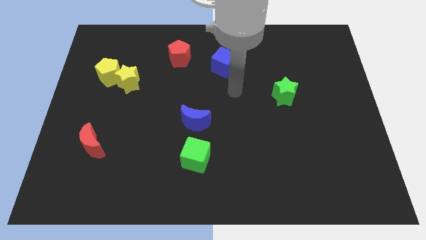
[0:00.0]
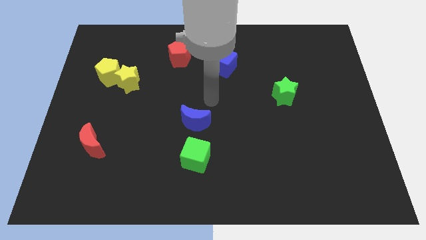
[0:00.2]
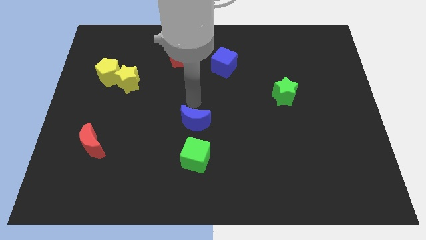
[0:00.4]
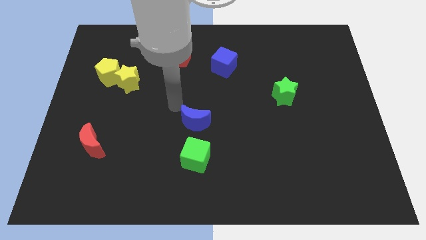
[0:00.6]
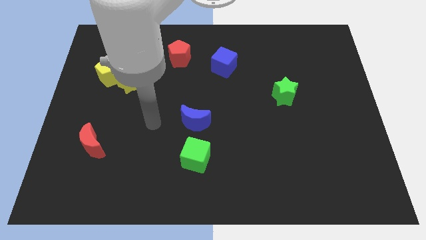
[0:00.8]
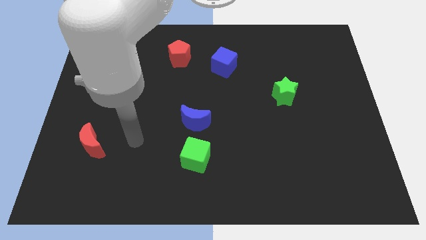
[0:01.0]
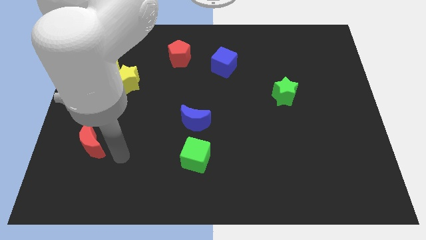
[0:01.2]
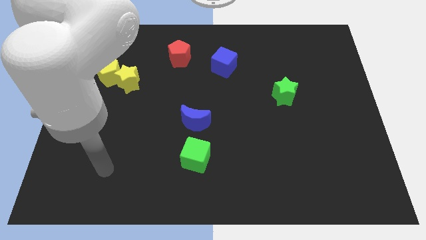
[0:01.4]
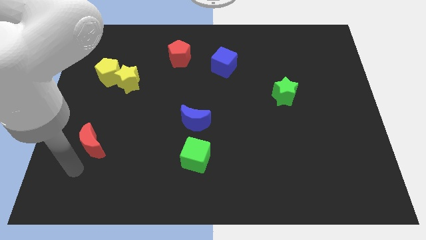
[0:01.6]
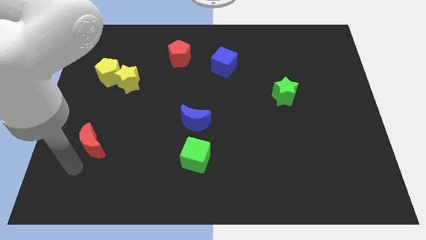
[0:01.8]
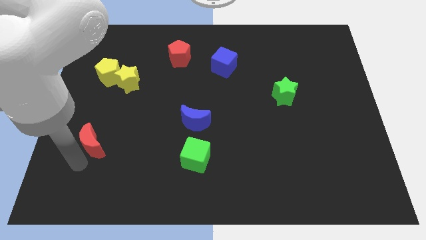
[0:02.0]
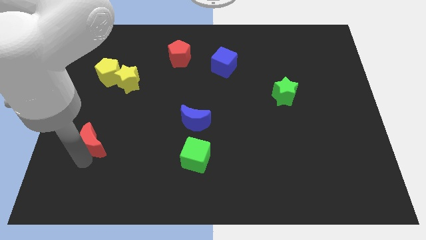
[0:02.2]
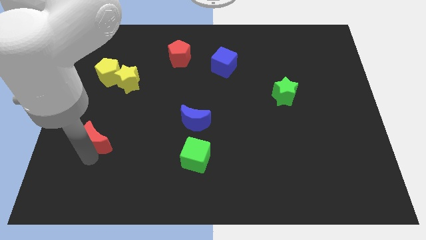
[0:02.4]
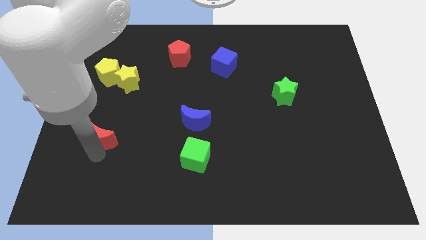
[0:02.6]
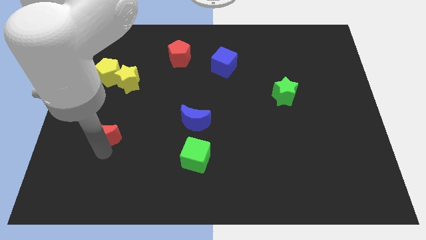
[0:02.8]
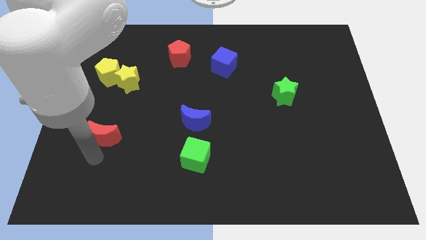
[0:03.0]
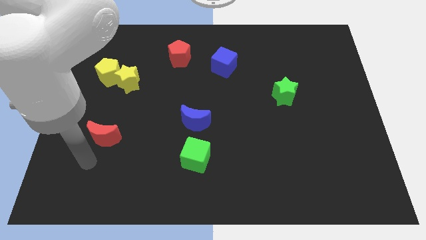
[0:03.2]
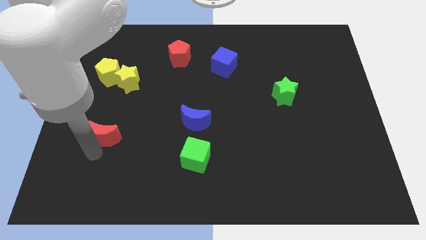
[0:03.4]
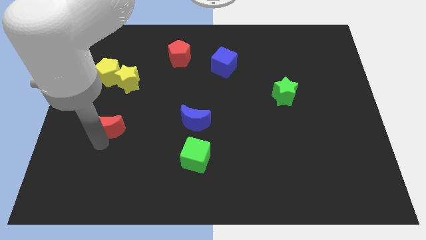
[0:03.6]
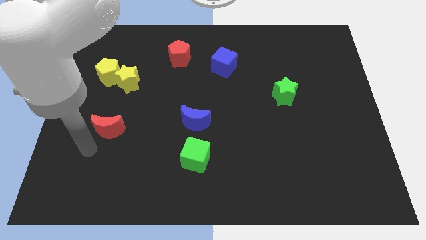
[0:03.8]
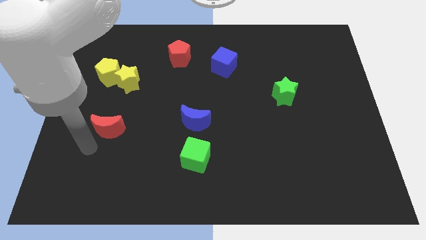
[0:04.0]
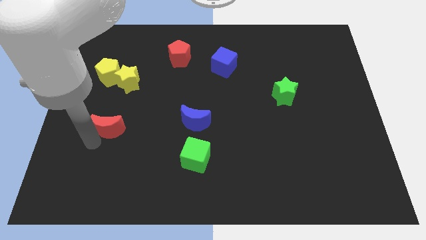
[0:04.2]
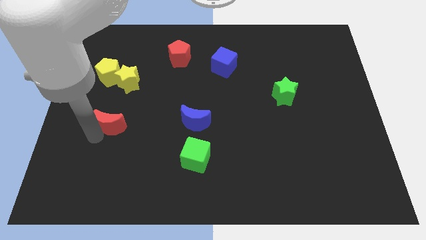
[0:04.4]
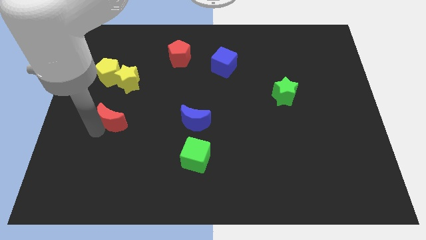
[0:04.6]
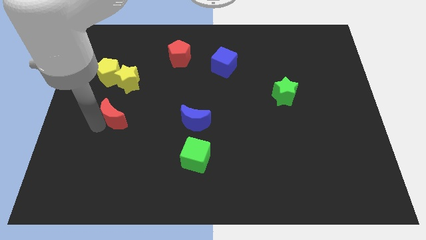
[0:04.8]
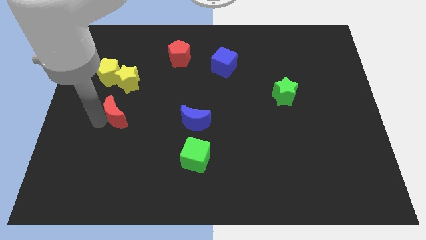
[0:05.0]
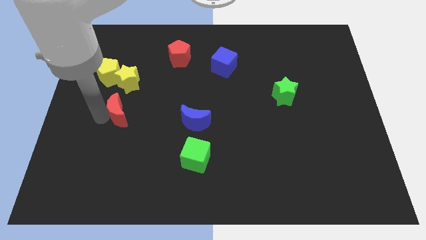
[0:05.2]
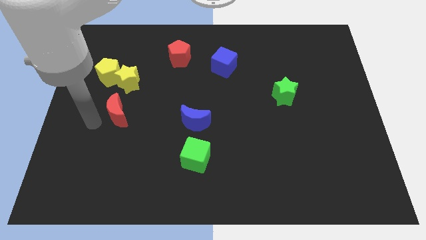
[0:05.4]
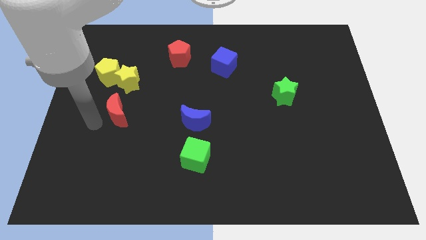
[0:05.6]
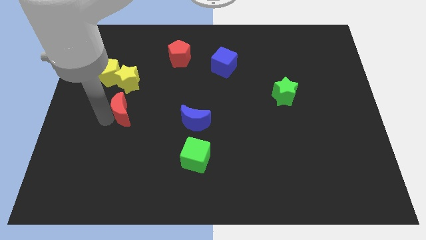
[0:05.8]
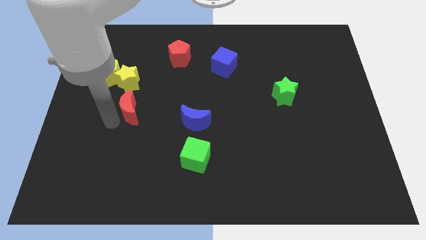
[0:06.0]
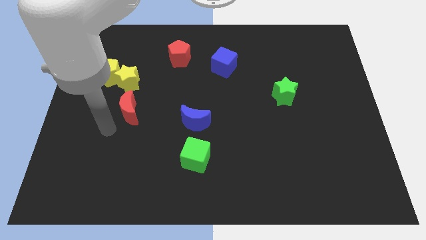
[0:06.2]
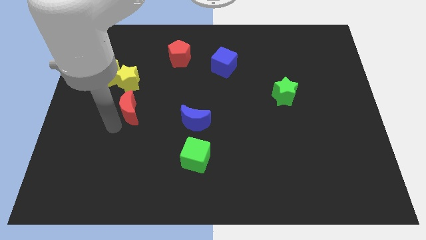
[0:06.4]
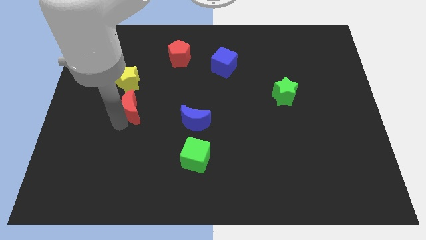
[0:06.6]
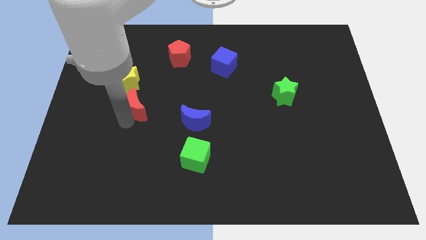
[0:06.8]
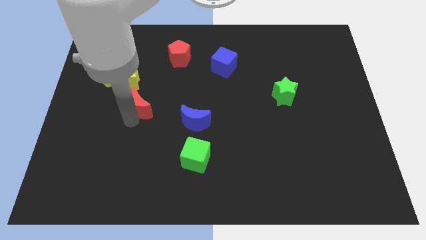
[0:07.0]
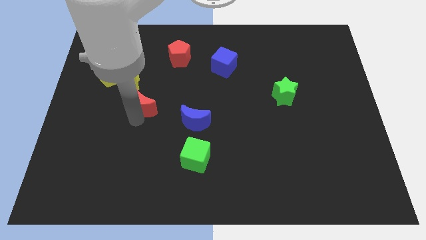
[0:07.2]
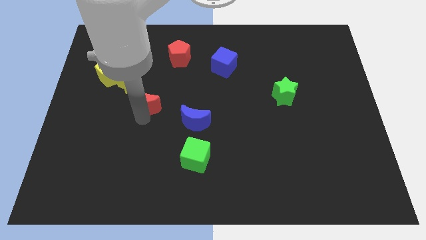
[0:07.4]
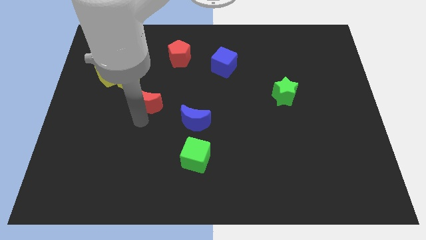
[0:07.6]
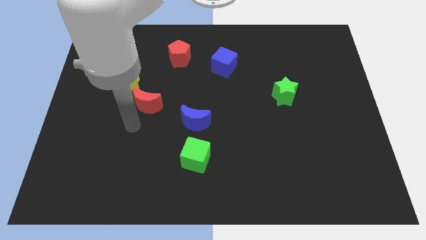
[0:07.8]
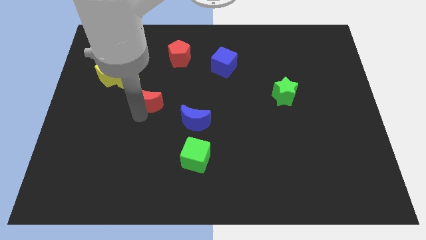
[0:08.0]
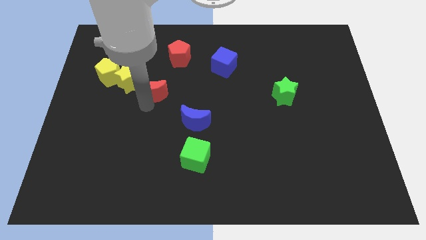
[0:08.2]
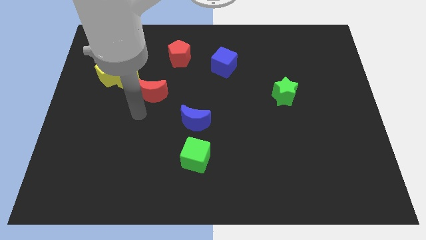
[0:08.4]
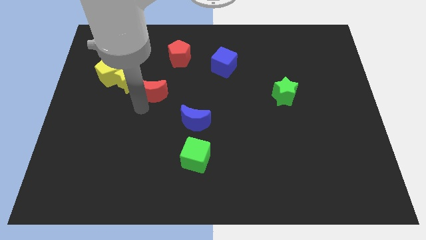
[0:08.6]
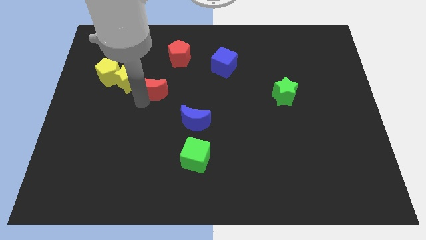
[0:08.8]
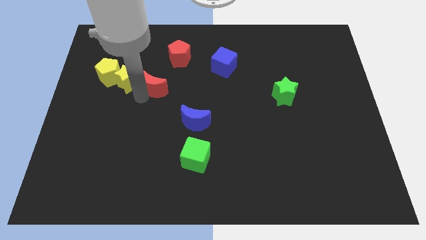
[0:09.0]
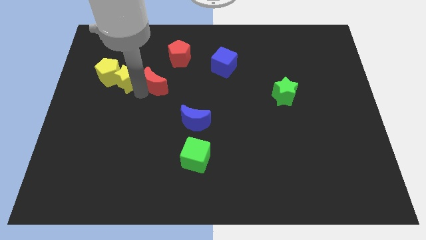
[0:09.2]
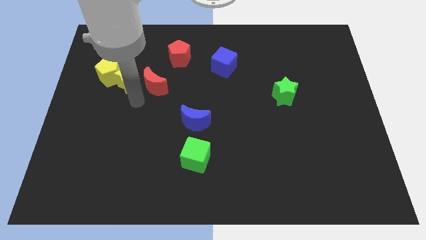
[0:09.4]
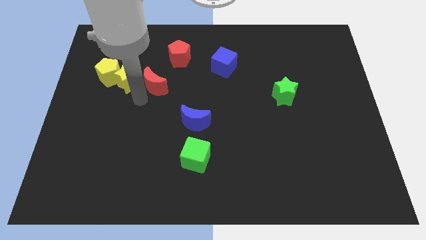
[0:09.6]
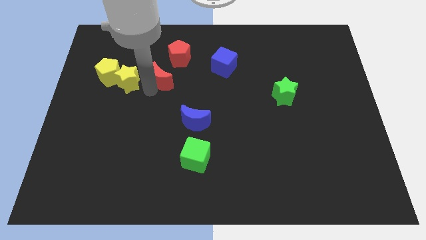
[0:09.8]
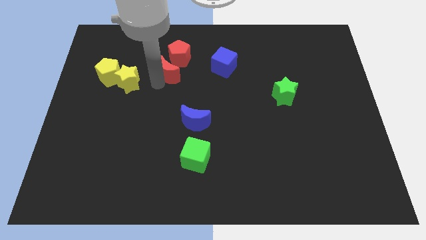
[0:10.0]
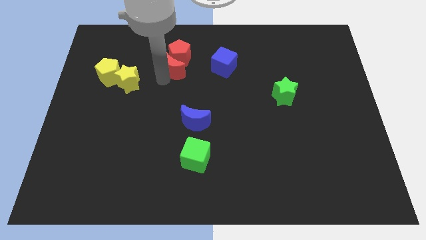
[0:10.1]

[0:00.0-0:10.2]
slide the red moon towards the red pentagon

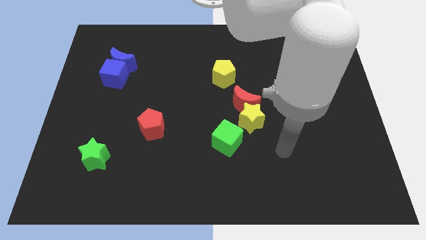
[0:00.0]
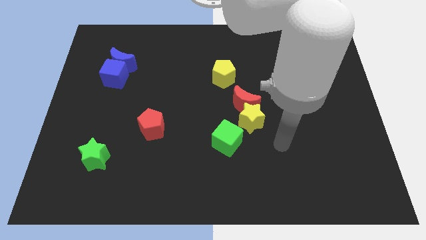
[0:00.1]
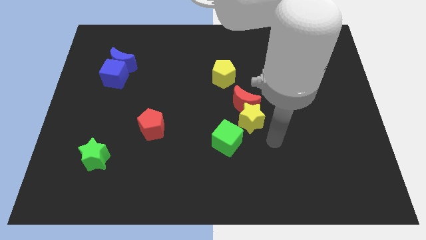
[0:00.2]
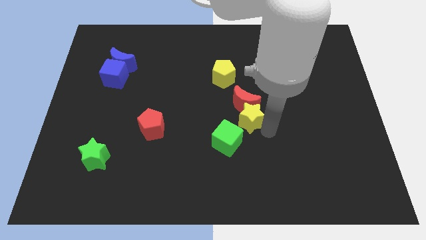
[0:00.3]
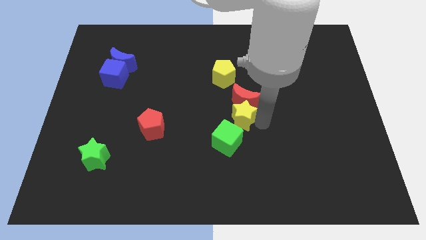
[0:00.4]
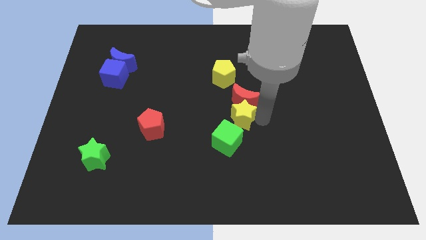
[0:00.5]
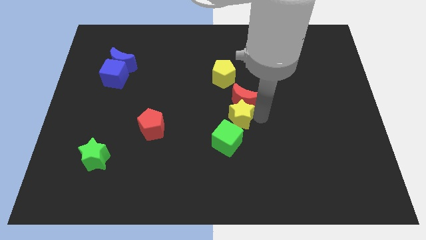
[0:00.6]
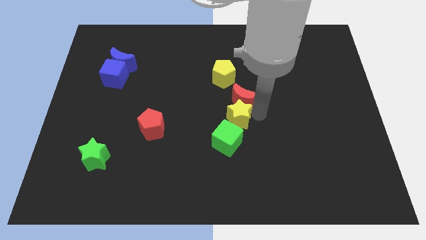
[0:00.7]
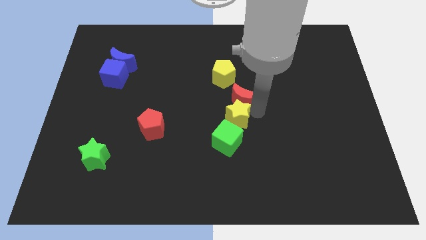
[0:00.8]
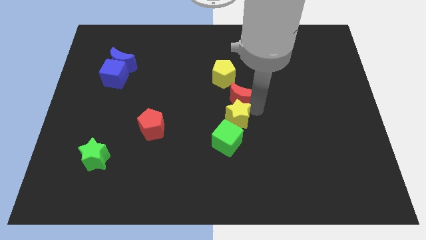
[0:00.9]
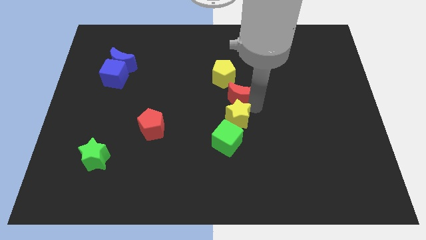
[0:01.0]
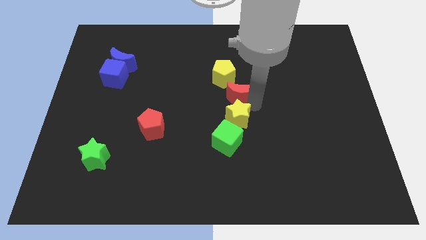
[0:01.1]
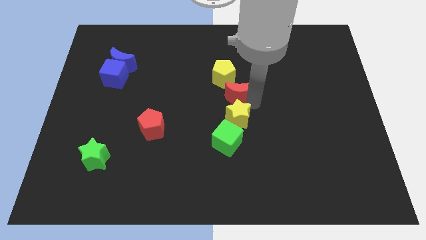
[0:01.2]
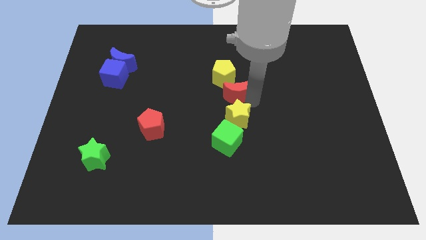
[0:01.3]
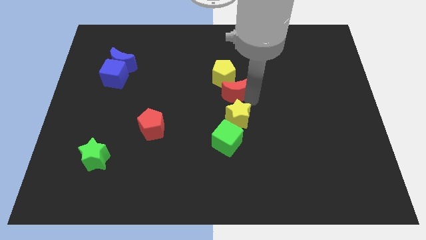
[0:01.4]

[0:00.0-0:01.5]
move the red moon next to the yellow pentagon

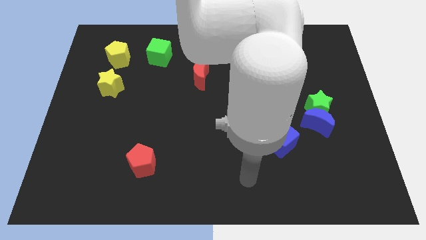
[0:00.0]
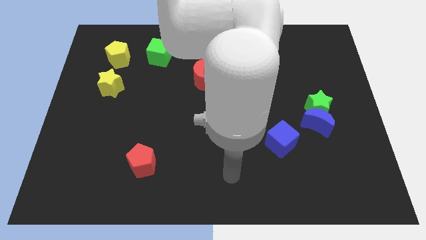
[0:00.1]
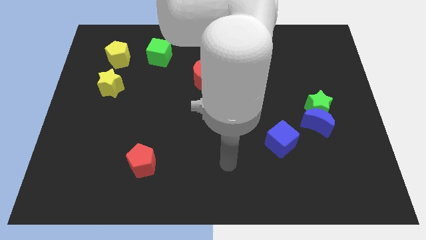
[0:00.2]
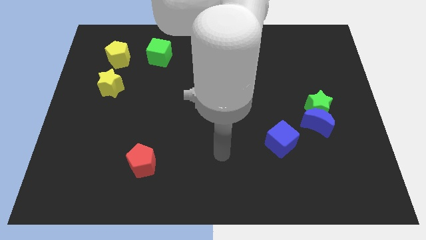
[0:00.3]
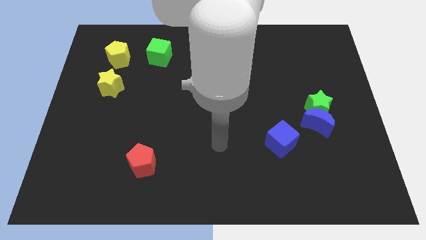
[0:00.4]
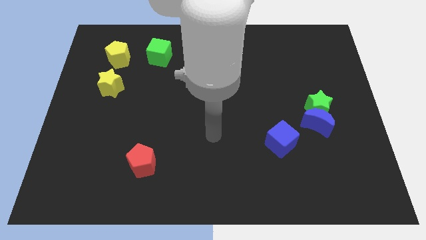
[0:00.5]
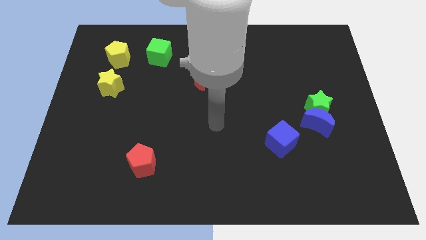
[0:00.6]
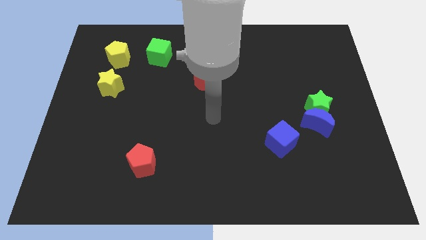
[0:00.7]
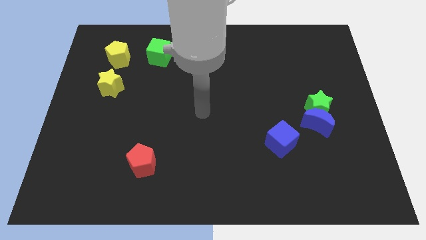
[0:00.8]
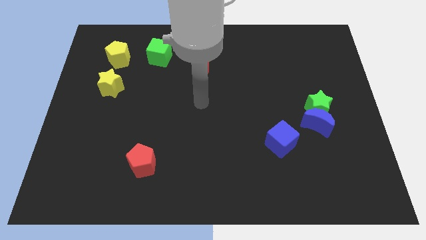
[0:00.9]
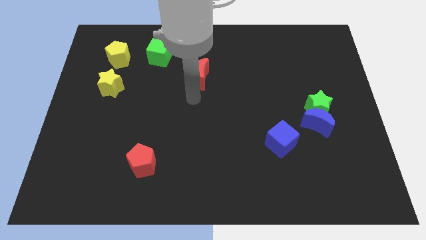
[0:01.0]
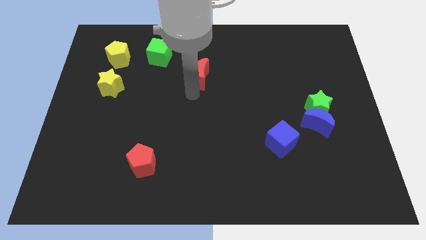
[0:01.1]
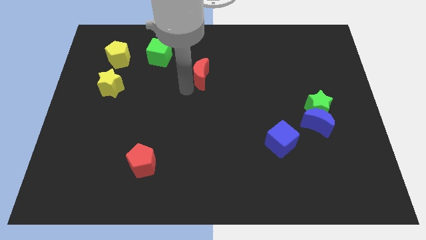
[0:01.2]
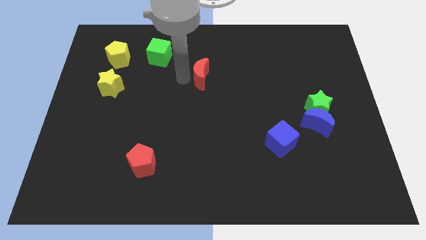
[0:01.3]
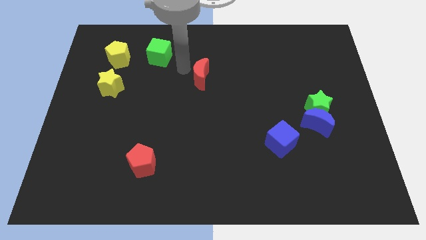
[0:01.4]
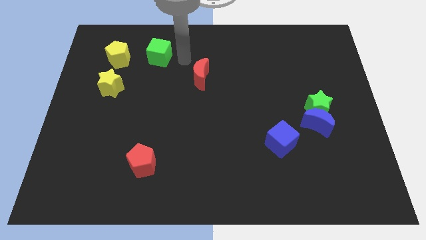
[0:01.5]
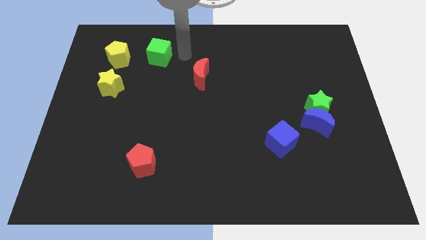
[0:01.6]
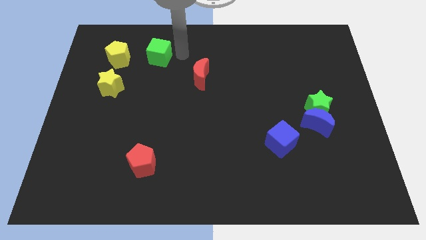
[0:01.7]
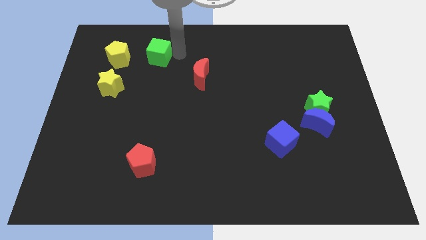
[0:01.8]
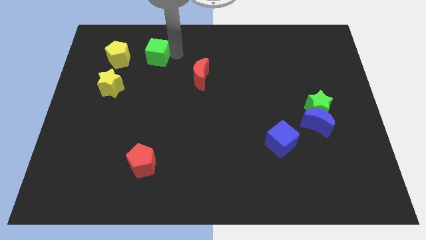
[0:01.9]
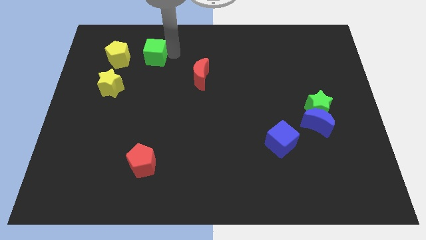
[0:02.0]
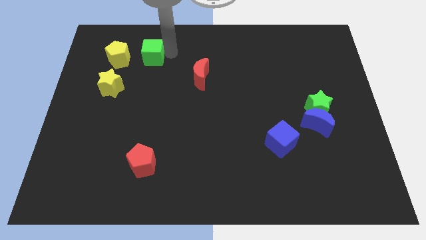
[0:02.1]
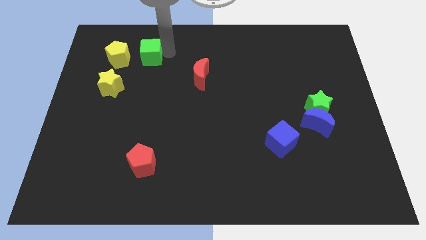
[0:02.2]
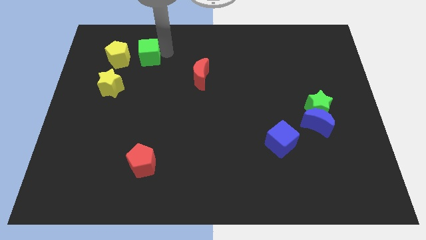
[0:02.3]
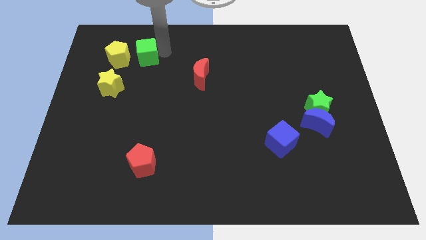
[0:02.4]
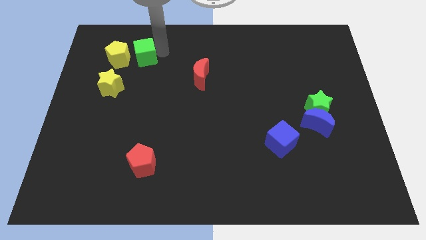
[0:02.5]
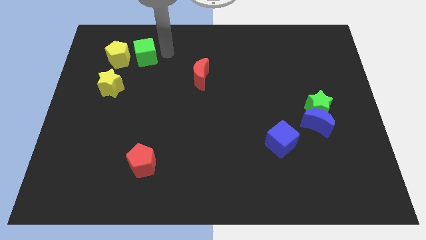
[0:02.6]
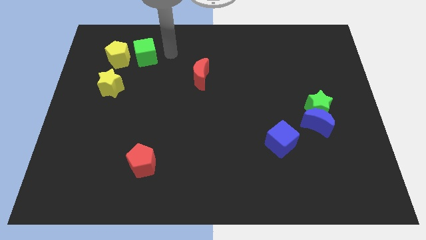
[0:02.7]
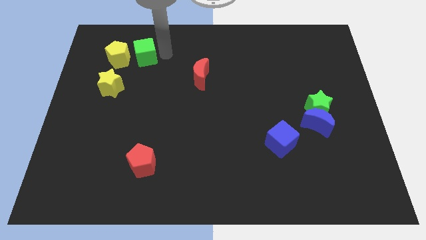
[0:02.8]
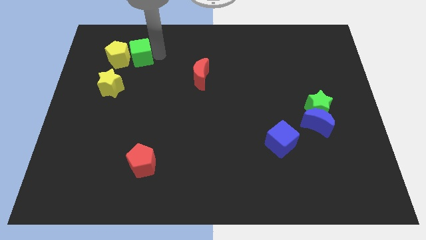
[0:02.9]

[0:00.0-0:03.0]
put the green cube next to the yellow pentagon
